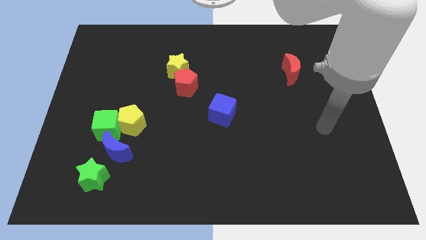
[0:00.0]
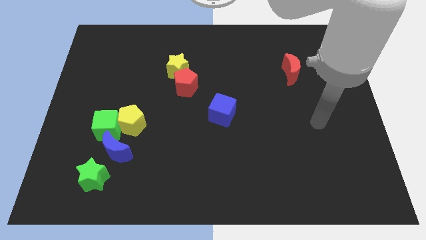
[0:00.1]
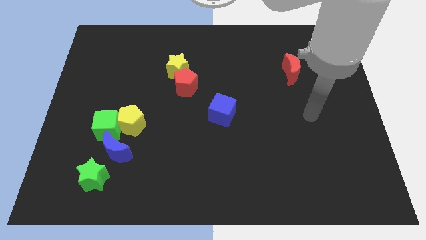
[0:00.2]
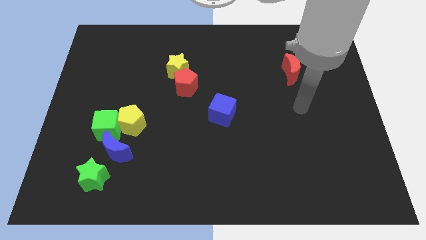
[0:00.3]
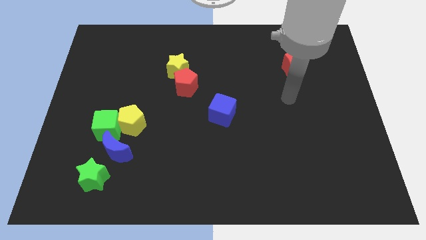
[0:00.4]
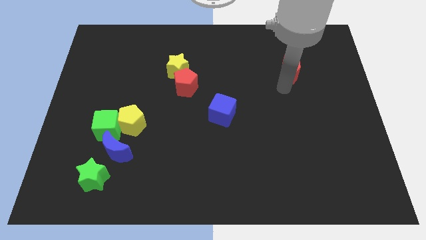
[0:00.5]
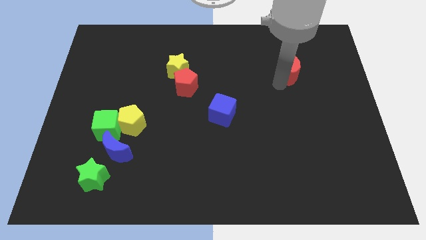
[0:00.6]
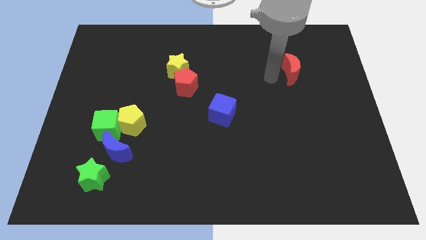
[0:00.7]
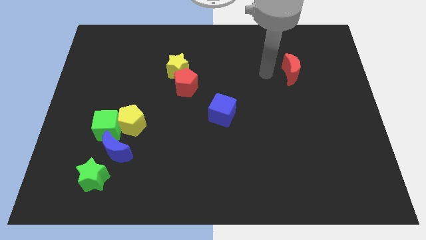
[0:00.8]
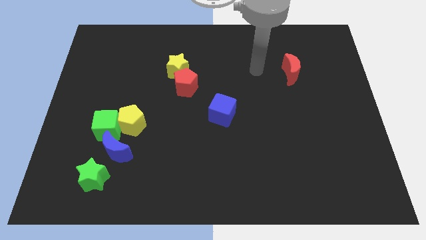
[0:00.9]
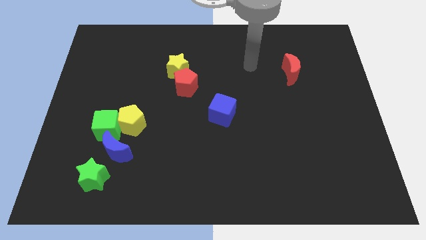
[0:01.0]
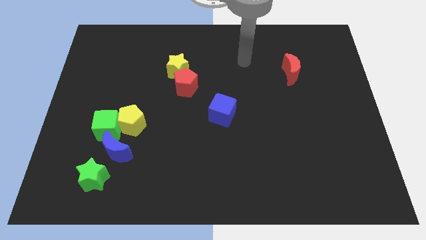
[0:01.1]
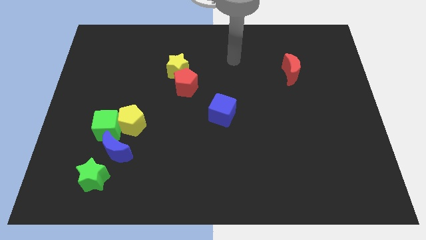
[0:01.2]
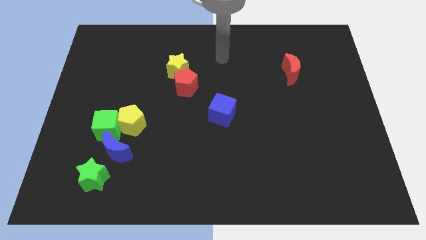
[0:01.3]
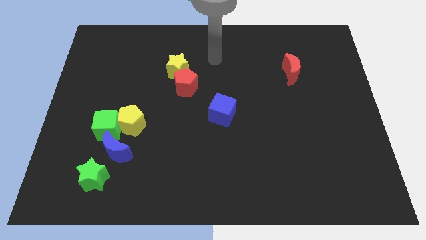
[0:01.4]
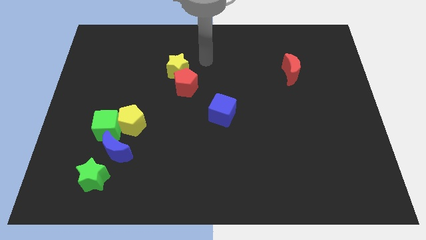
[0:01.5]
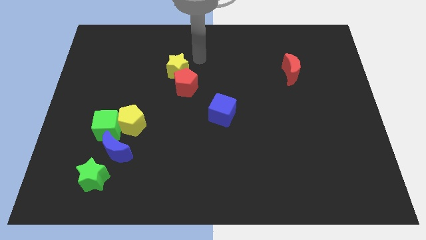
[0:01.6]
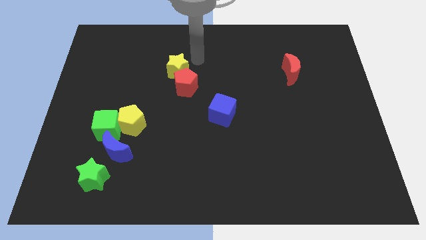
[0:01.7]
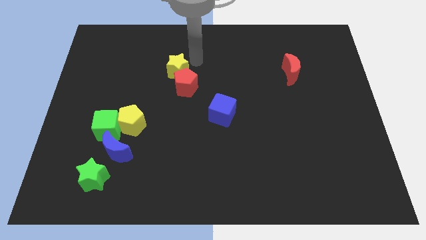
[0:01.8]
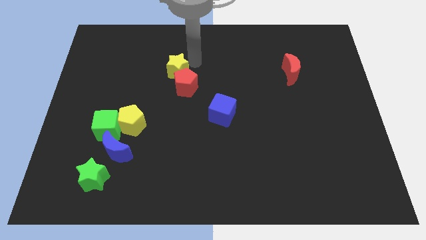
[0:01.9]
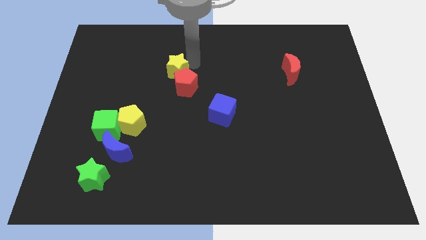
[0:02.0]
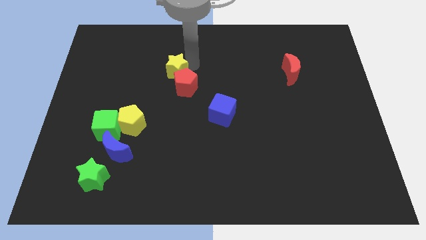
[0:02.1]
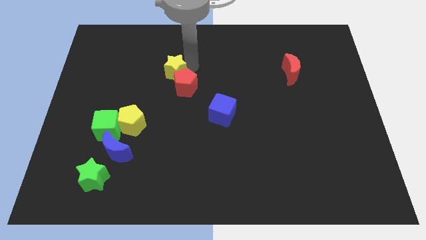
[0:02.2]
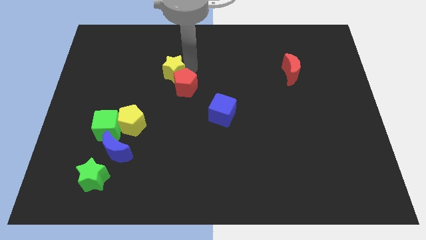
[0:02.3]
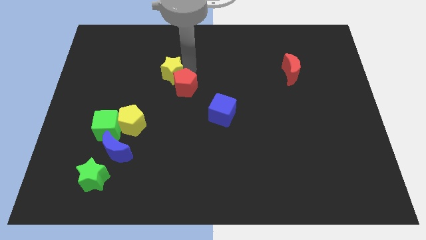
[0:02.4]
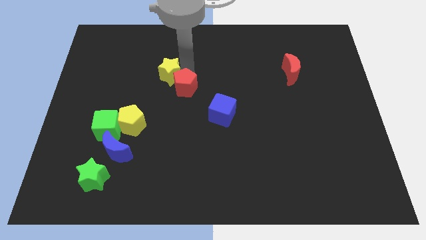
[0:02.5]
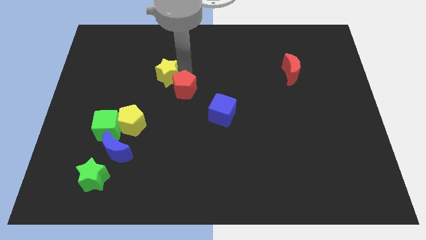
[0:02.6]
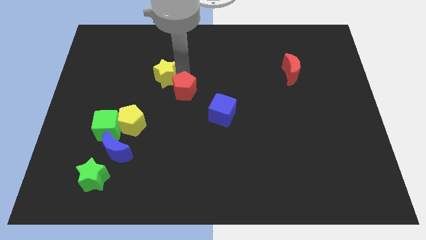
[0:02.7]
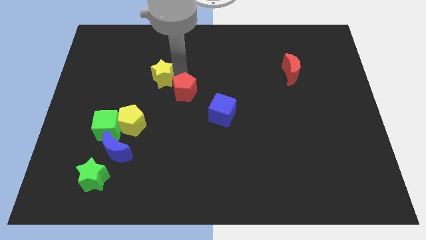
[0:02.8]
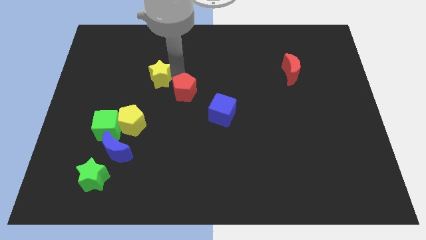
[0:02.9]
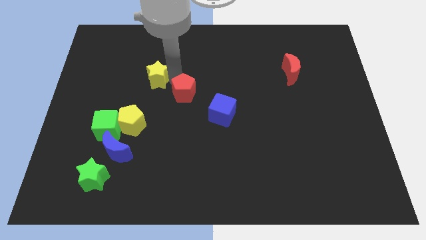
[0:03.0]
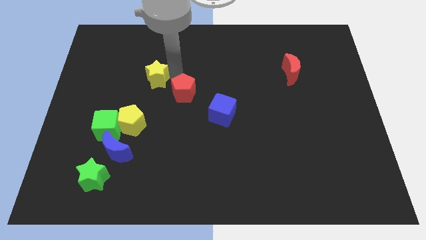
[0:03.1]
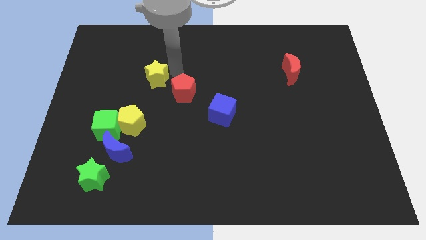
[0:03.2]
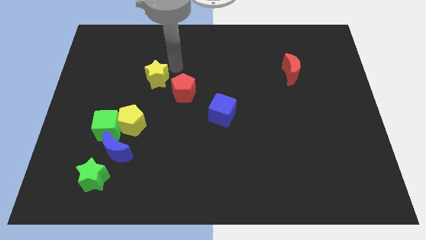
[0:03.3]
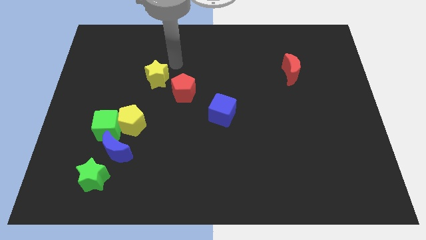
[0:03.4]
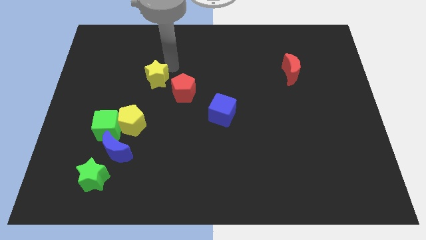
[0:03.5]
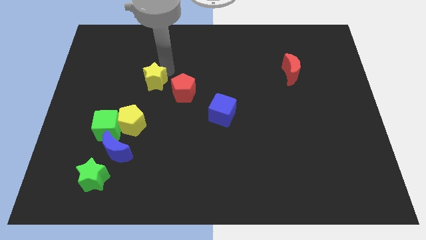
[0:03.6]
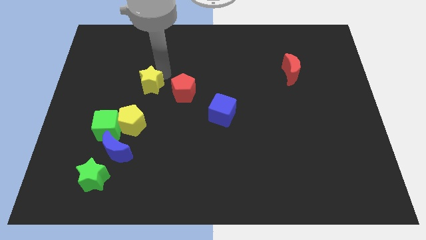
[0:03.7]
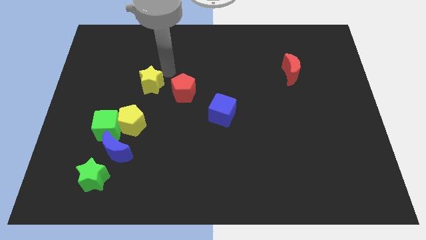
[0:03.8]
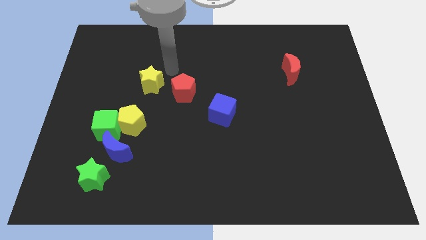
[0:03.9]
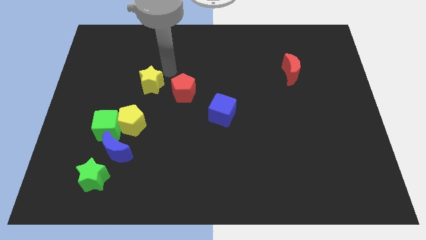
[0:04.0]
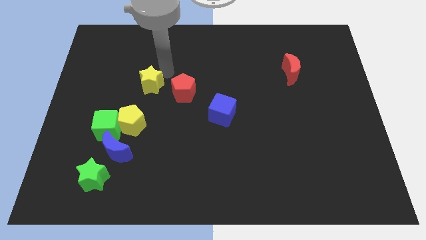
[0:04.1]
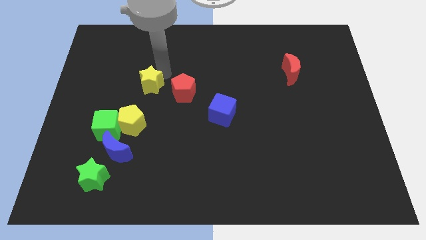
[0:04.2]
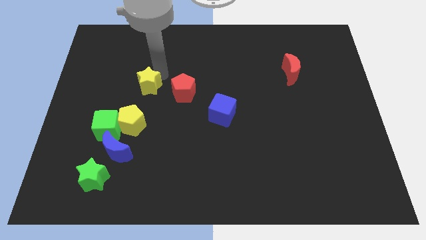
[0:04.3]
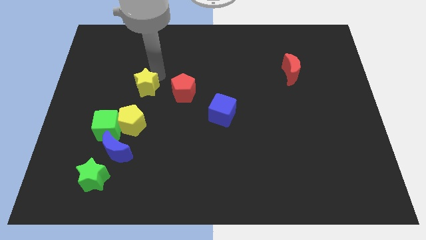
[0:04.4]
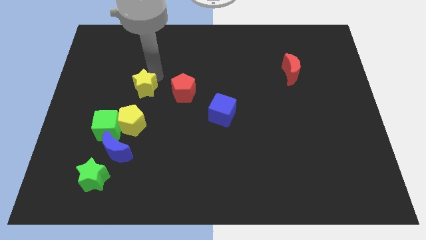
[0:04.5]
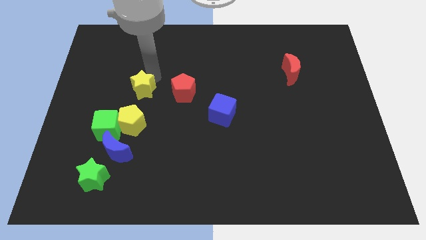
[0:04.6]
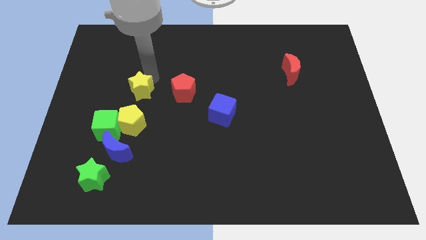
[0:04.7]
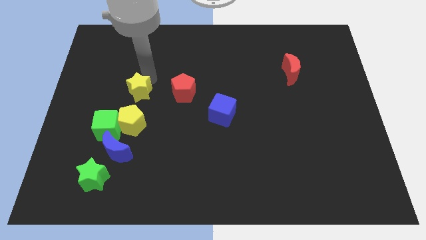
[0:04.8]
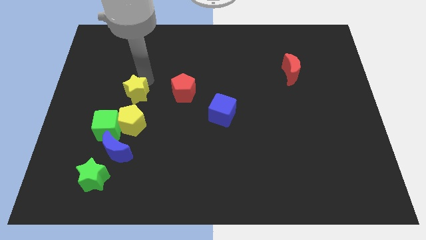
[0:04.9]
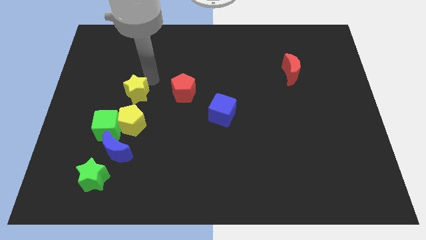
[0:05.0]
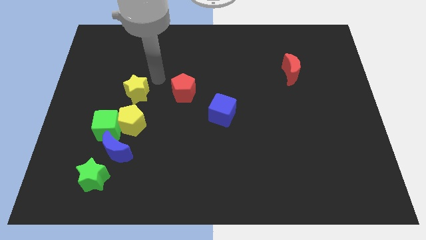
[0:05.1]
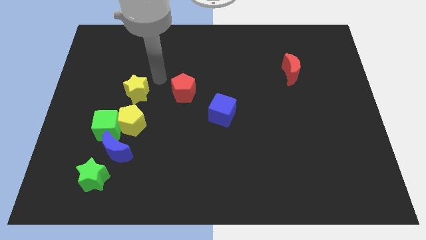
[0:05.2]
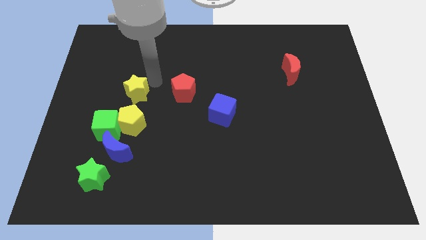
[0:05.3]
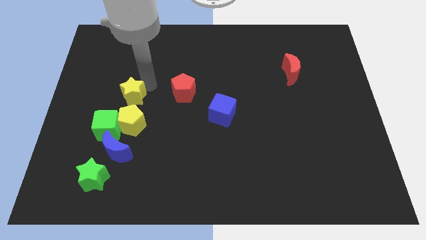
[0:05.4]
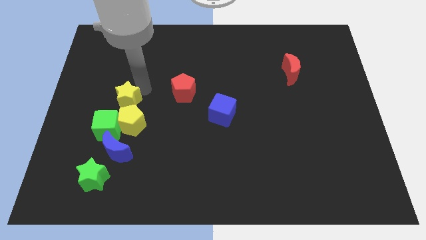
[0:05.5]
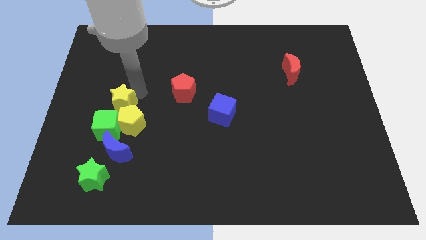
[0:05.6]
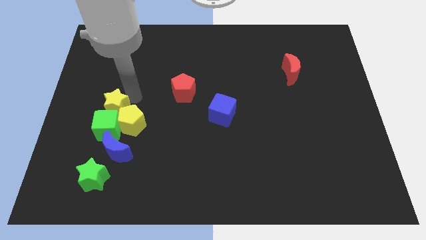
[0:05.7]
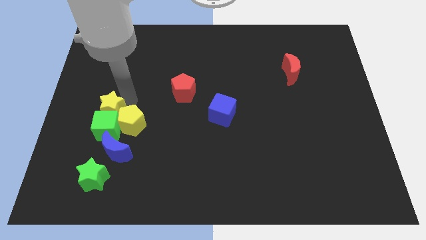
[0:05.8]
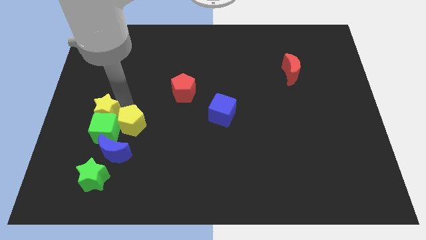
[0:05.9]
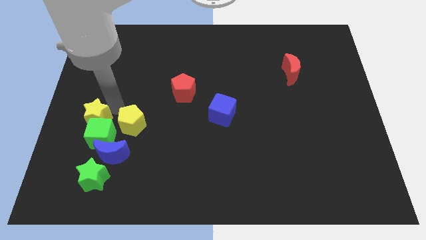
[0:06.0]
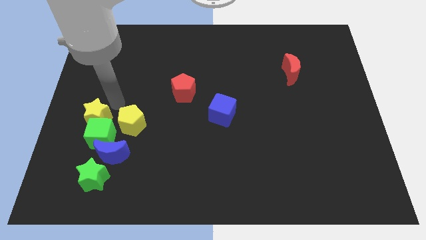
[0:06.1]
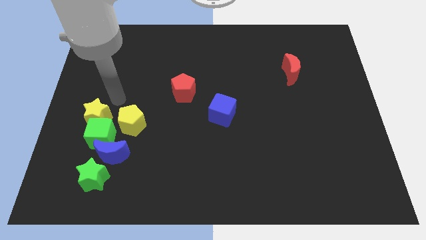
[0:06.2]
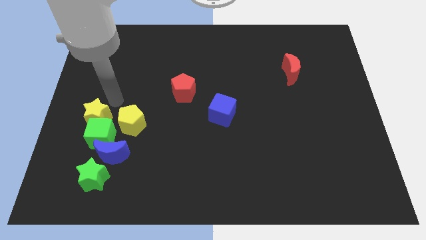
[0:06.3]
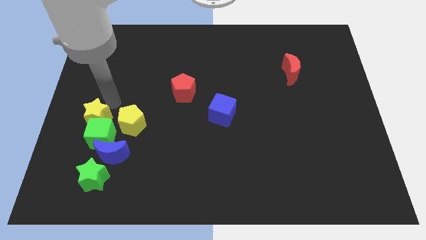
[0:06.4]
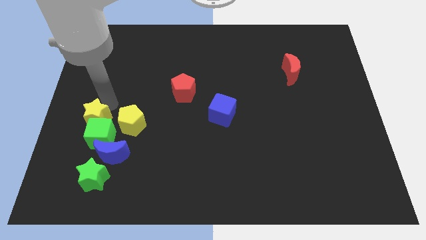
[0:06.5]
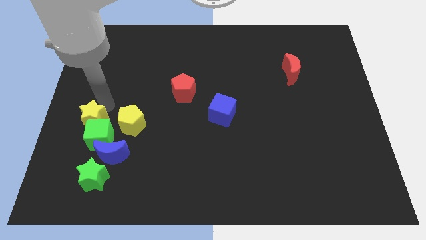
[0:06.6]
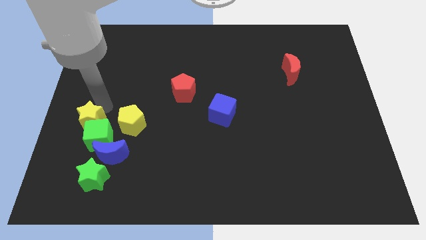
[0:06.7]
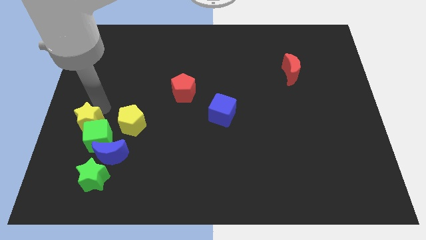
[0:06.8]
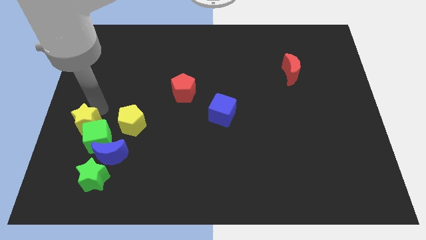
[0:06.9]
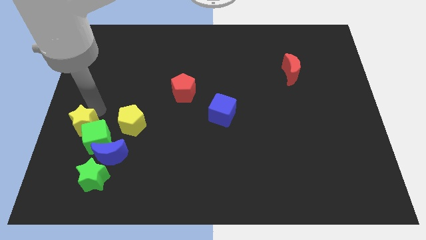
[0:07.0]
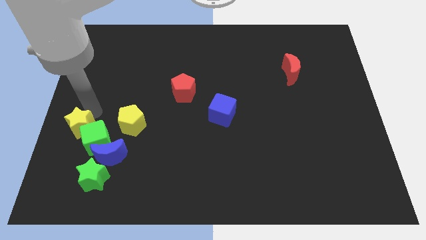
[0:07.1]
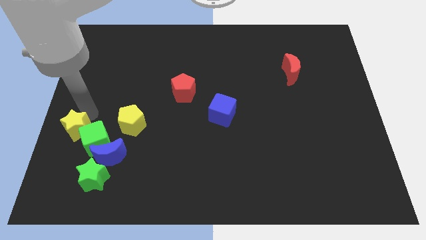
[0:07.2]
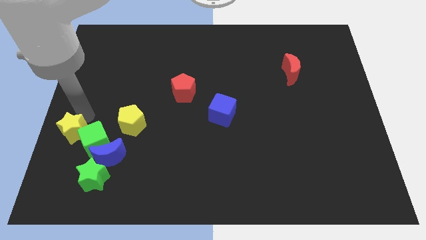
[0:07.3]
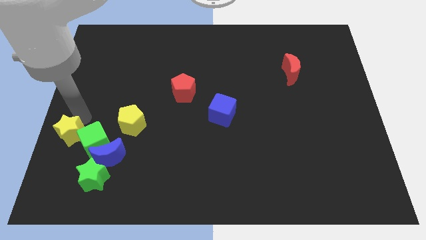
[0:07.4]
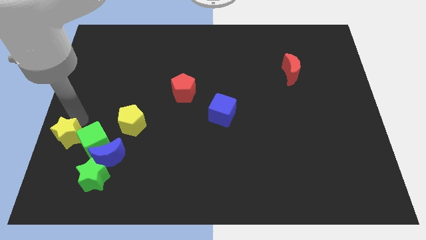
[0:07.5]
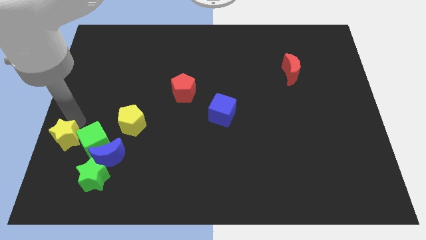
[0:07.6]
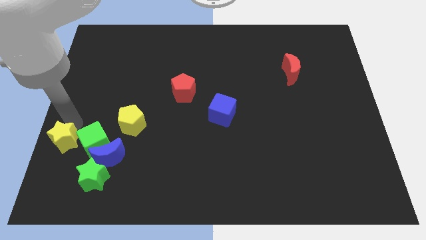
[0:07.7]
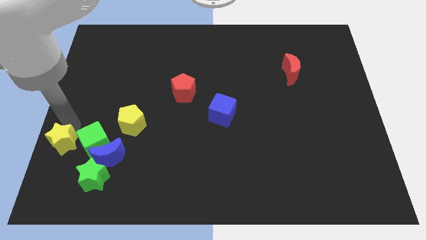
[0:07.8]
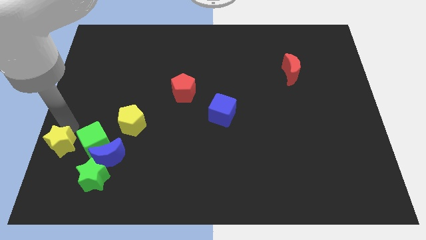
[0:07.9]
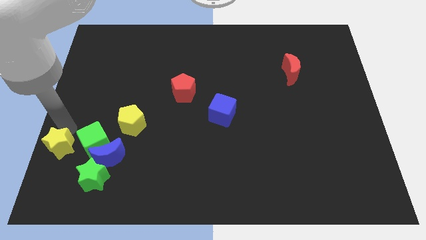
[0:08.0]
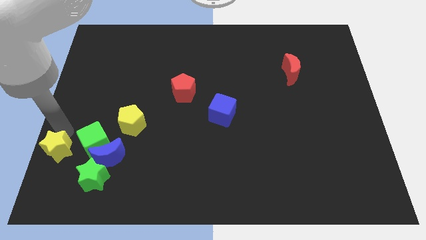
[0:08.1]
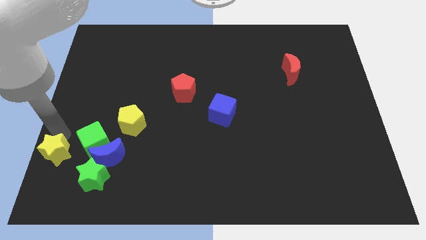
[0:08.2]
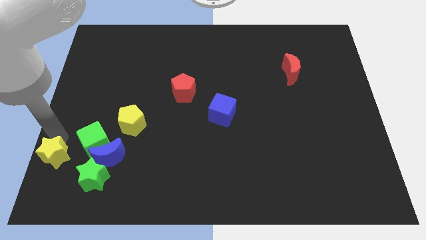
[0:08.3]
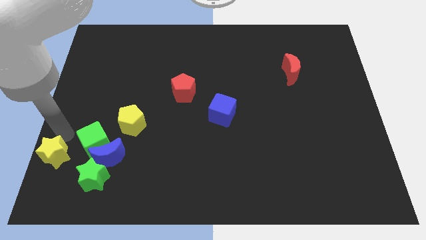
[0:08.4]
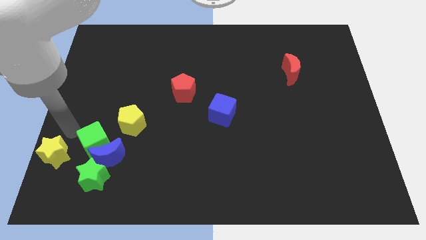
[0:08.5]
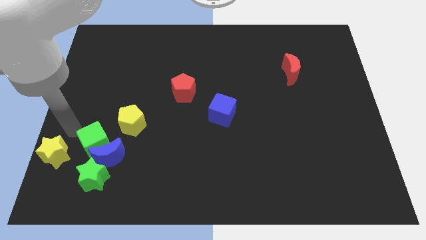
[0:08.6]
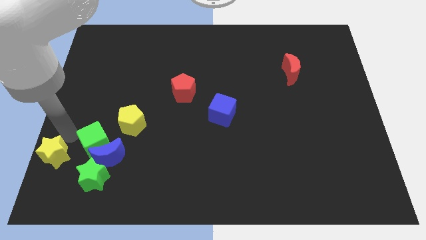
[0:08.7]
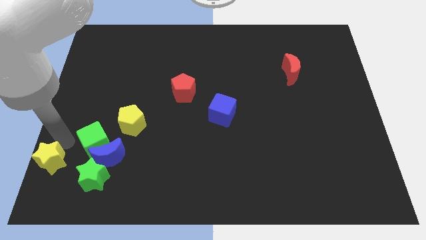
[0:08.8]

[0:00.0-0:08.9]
move the yellow star to the bottom left
